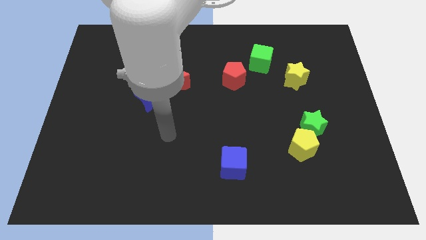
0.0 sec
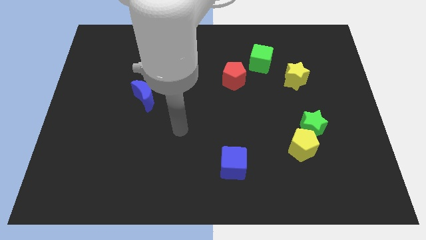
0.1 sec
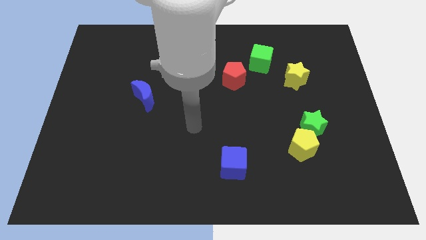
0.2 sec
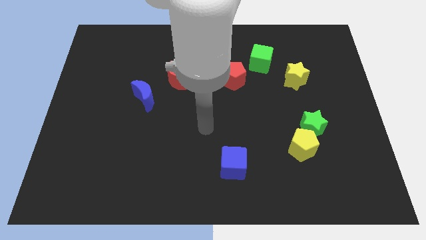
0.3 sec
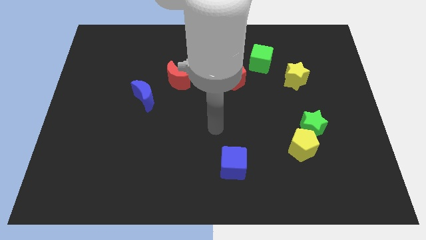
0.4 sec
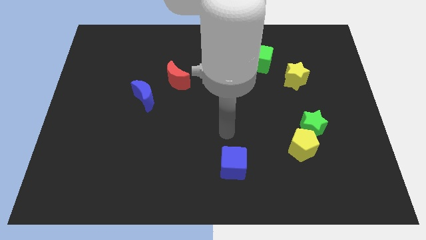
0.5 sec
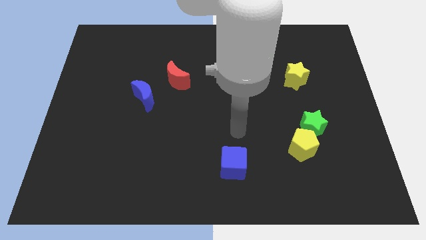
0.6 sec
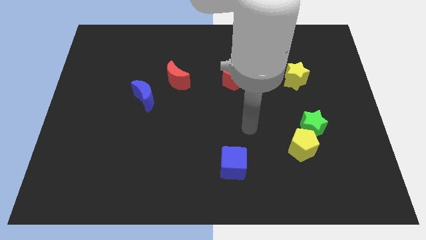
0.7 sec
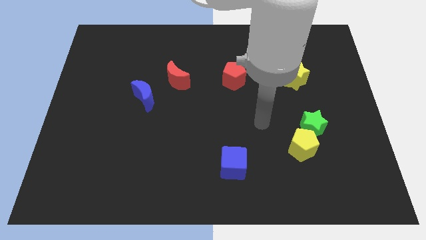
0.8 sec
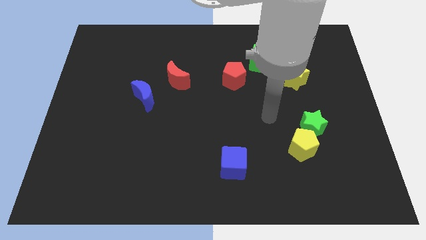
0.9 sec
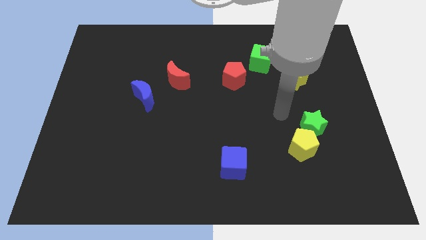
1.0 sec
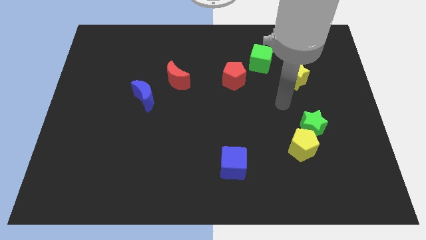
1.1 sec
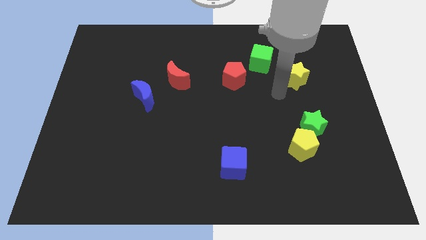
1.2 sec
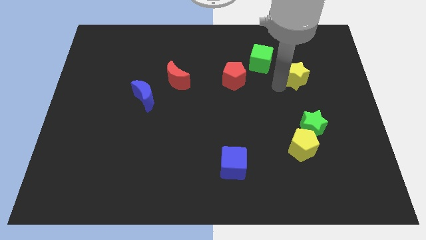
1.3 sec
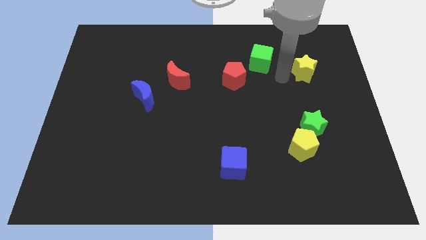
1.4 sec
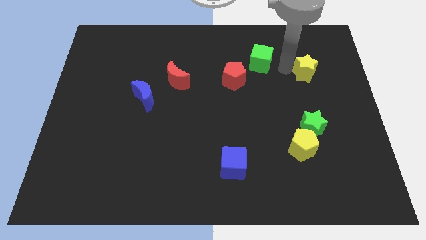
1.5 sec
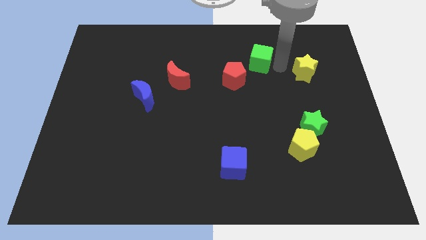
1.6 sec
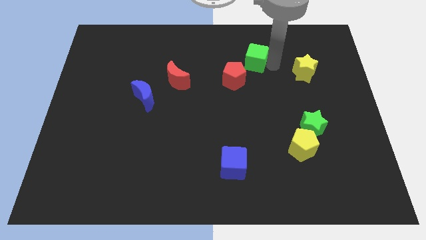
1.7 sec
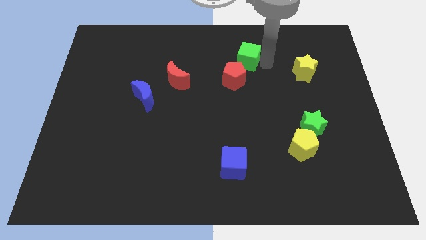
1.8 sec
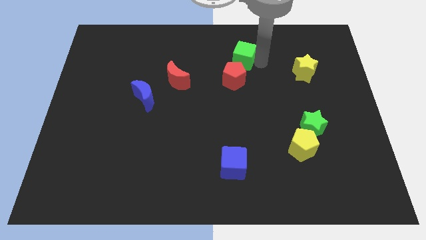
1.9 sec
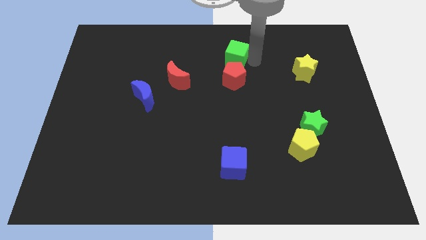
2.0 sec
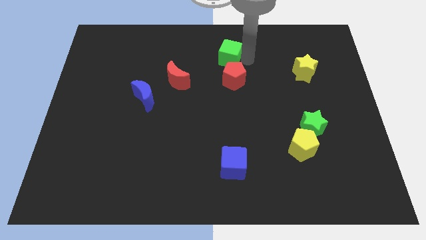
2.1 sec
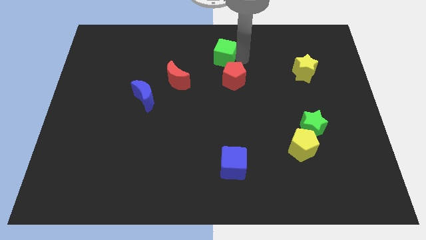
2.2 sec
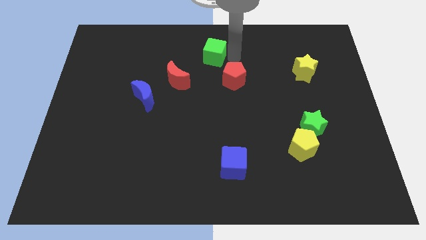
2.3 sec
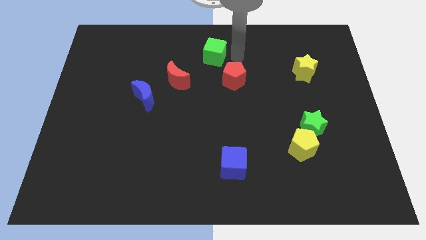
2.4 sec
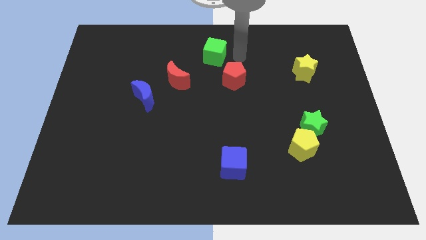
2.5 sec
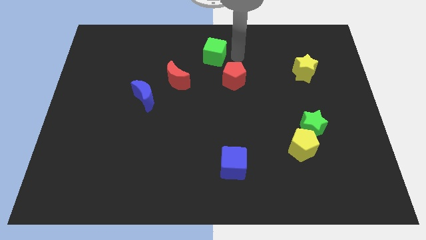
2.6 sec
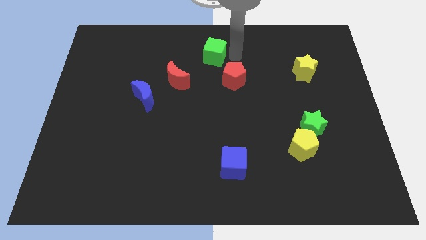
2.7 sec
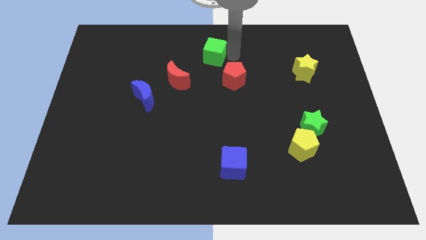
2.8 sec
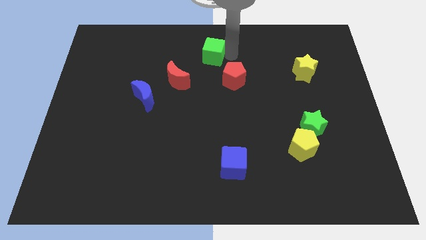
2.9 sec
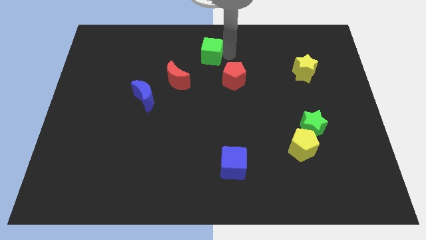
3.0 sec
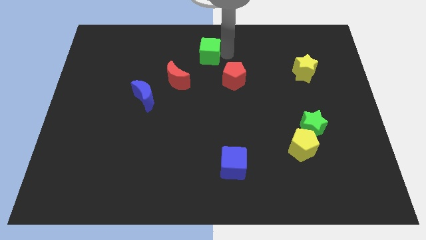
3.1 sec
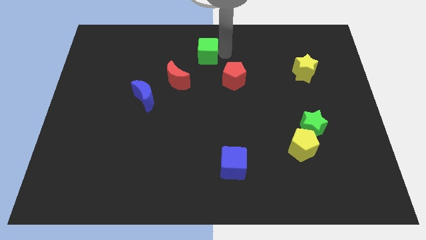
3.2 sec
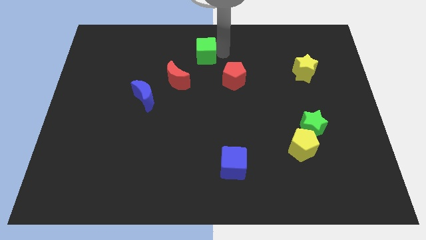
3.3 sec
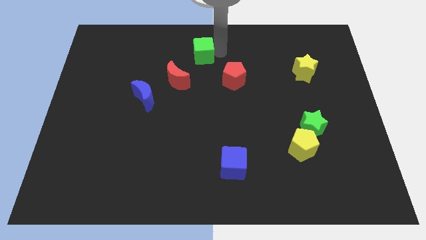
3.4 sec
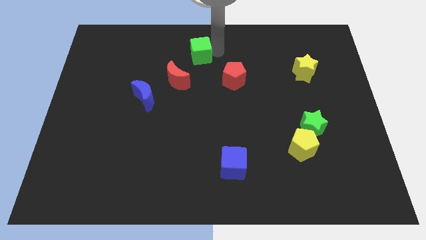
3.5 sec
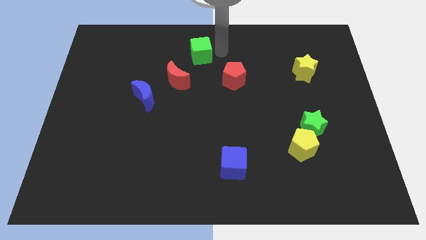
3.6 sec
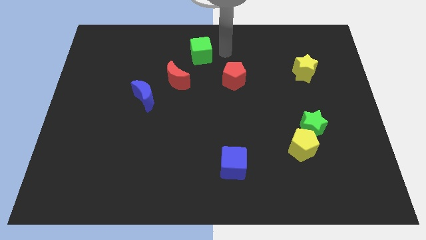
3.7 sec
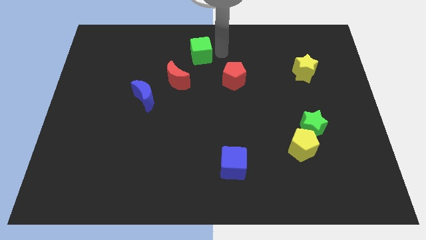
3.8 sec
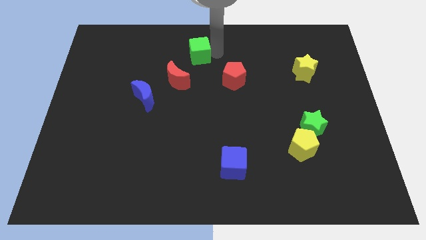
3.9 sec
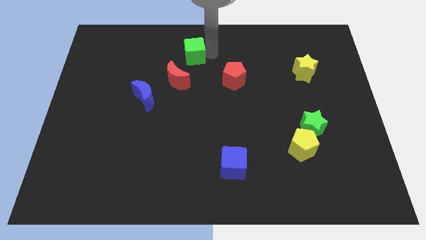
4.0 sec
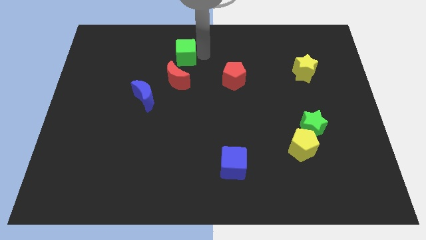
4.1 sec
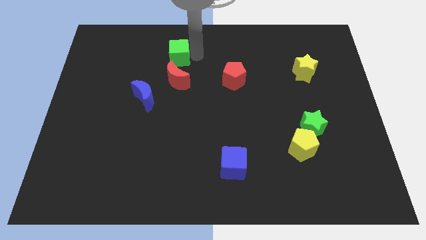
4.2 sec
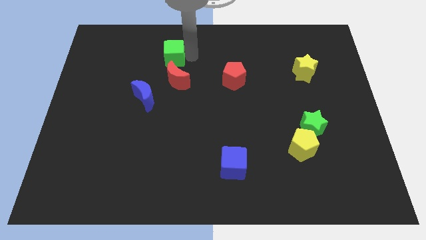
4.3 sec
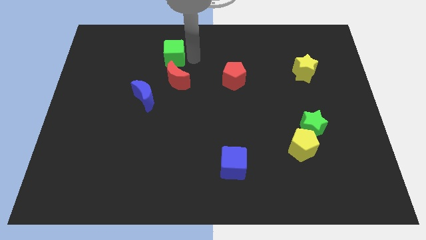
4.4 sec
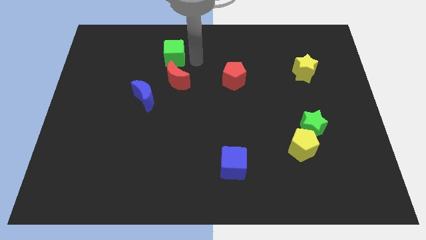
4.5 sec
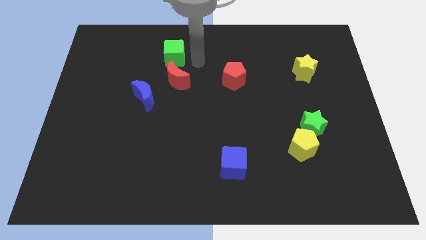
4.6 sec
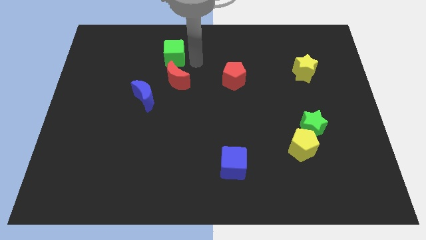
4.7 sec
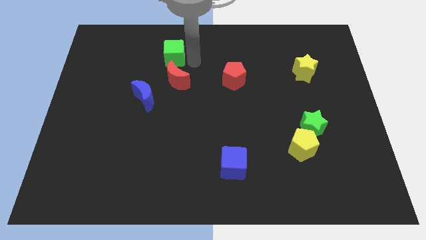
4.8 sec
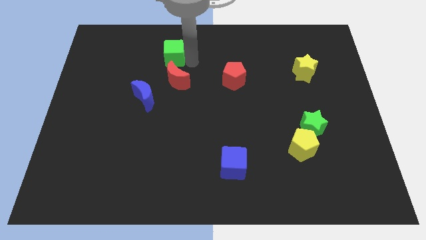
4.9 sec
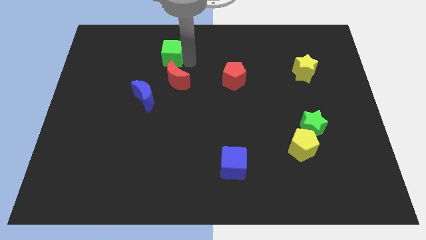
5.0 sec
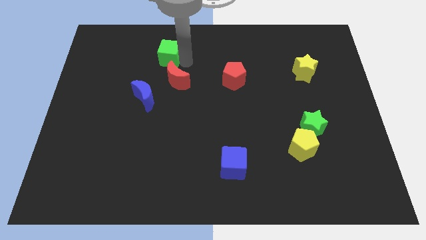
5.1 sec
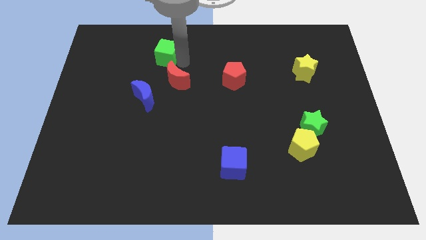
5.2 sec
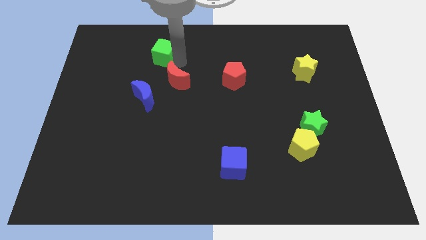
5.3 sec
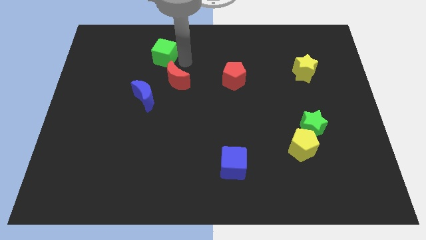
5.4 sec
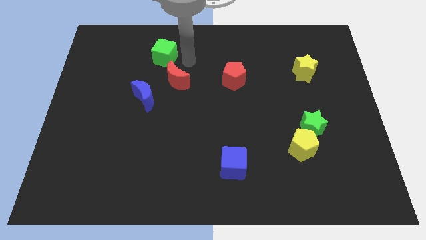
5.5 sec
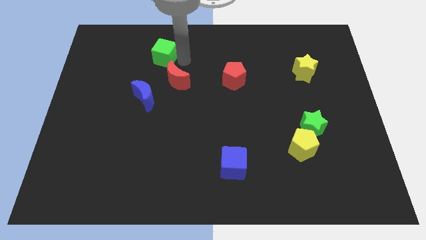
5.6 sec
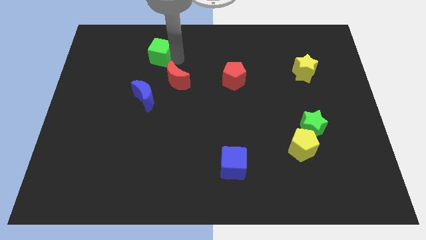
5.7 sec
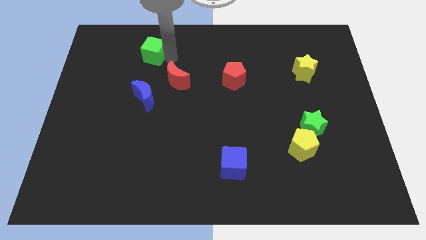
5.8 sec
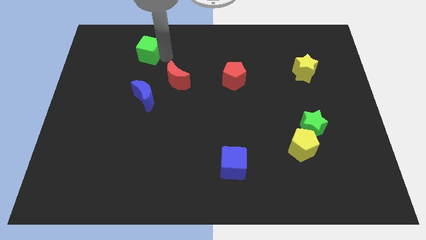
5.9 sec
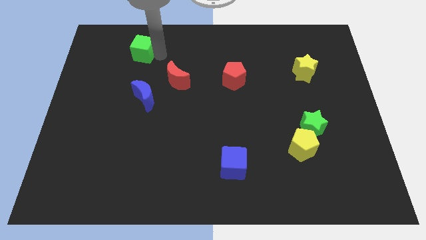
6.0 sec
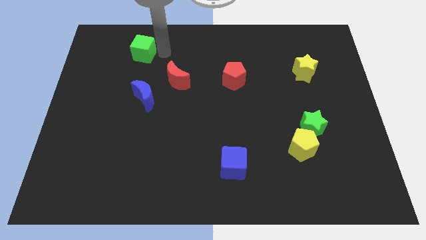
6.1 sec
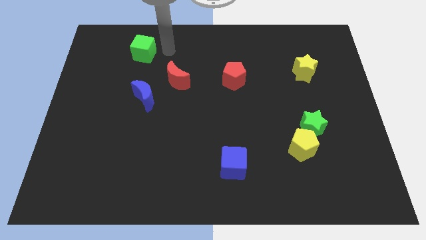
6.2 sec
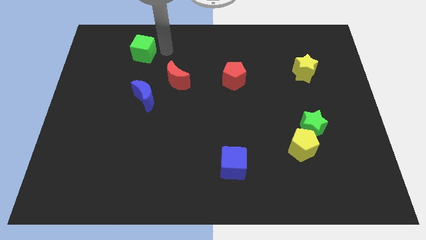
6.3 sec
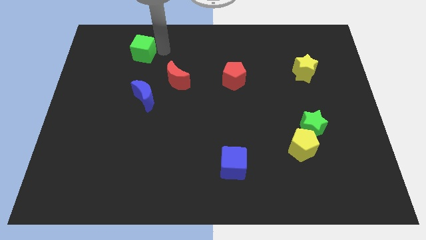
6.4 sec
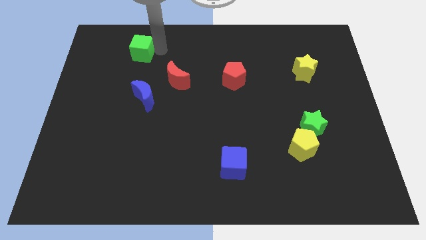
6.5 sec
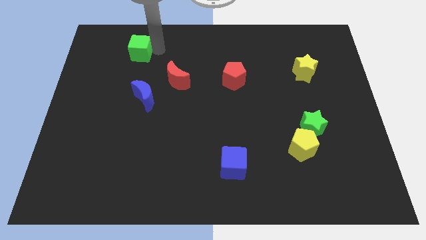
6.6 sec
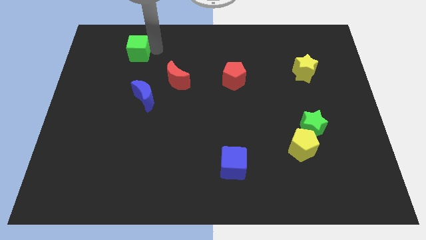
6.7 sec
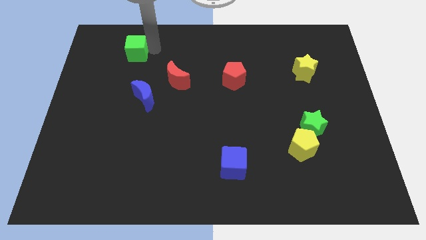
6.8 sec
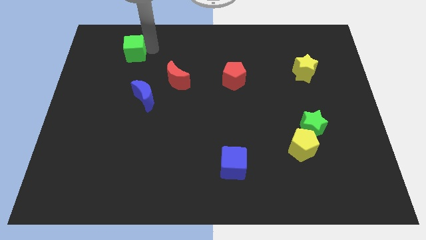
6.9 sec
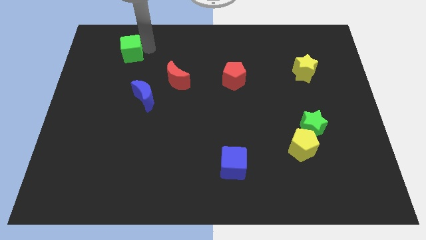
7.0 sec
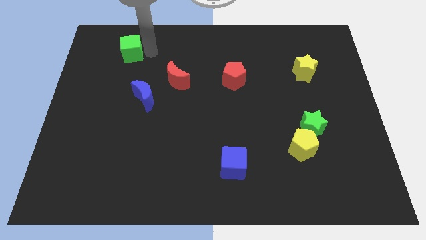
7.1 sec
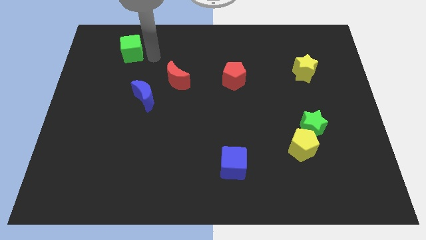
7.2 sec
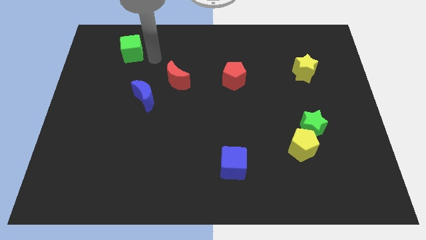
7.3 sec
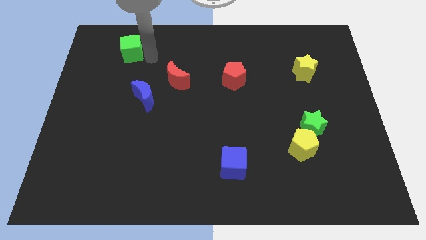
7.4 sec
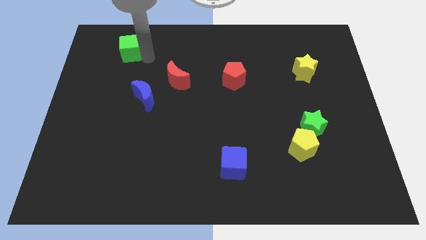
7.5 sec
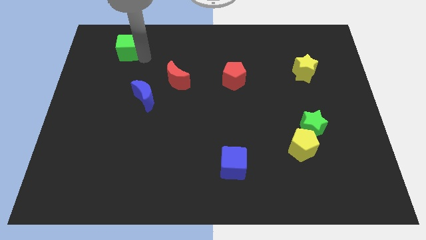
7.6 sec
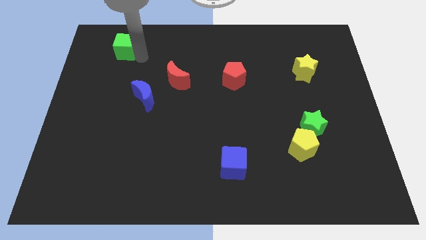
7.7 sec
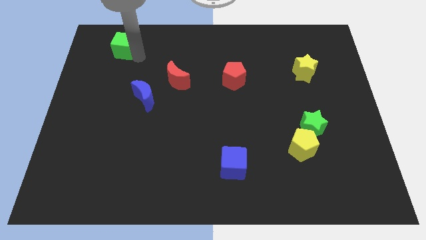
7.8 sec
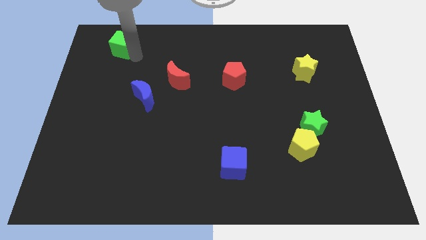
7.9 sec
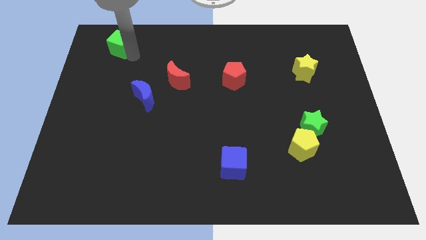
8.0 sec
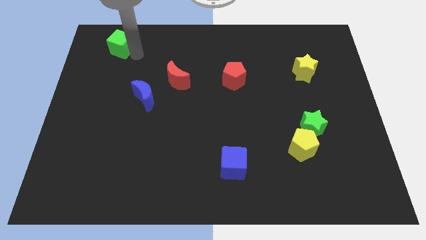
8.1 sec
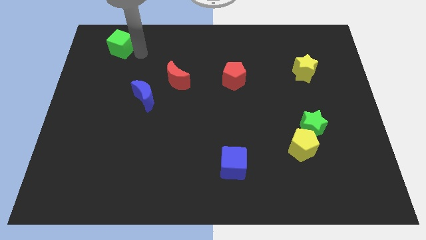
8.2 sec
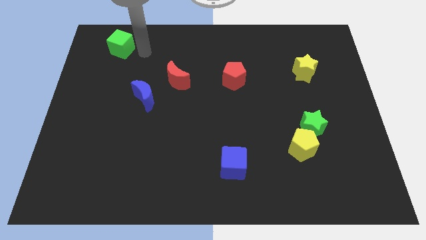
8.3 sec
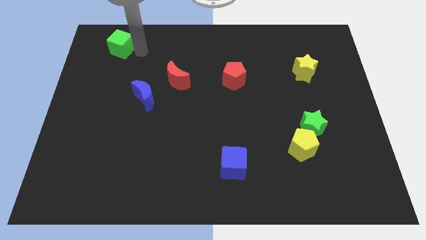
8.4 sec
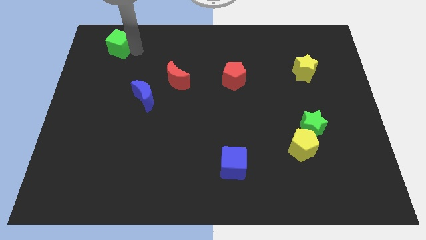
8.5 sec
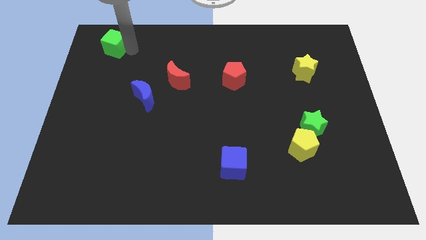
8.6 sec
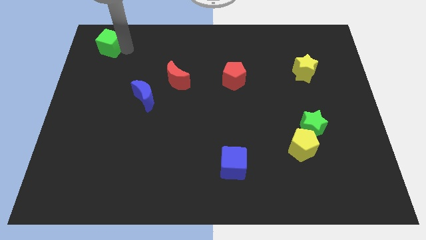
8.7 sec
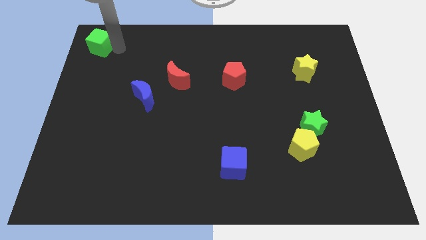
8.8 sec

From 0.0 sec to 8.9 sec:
slide the green cube to the top left
